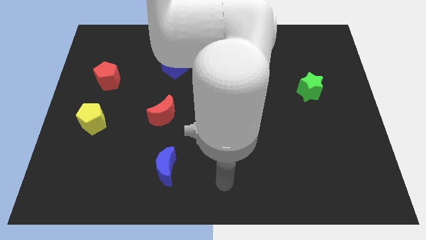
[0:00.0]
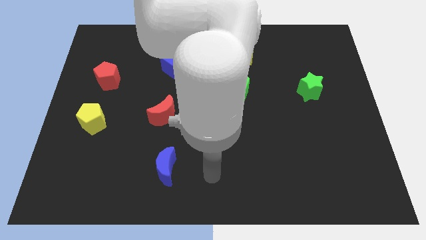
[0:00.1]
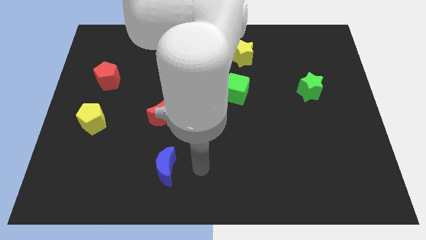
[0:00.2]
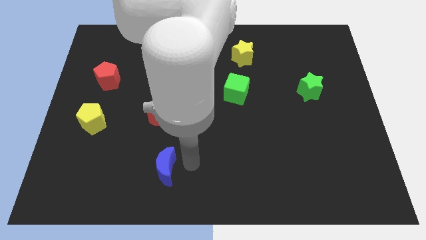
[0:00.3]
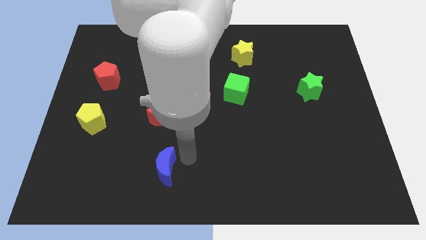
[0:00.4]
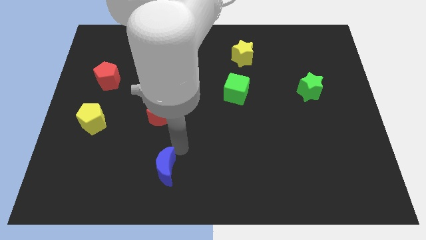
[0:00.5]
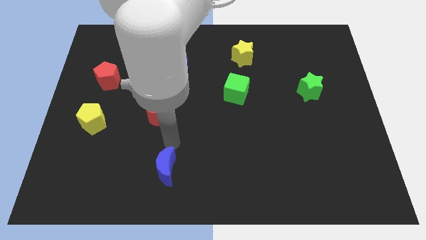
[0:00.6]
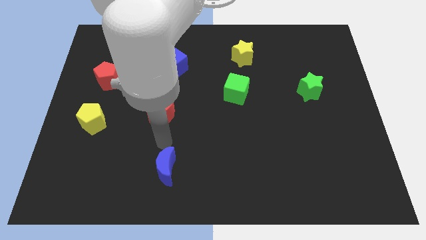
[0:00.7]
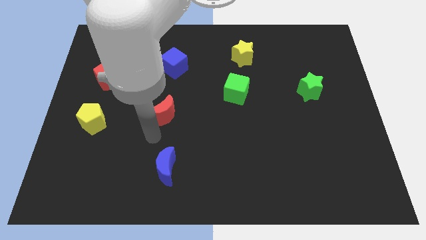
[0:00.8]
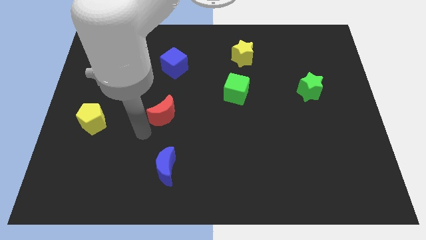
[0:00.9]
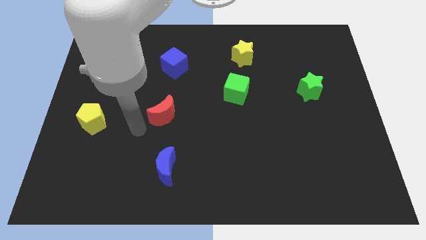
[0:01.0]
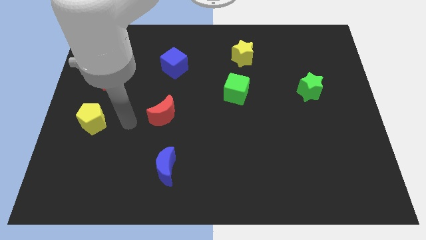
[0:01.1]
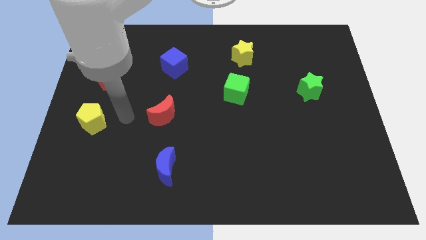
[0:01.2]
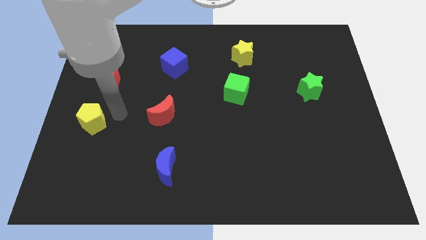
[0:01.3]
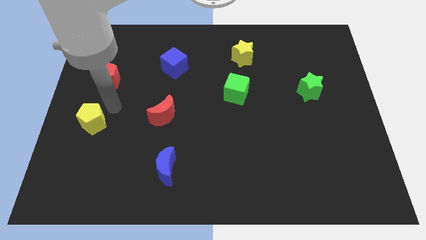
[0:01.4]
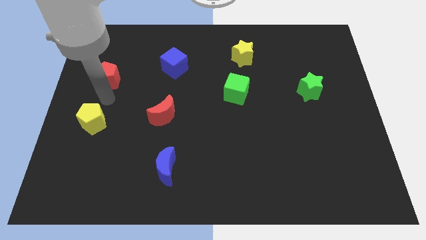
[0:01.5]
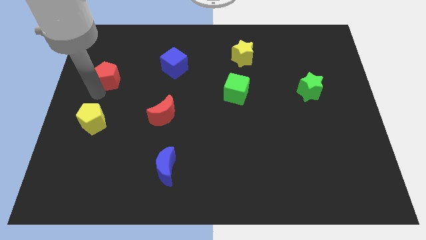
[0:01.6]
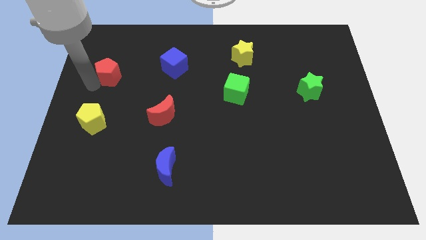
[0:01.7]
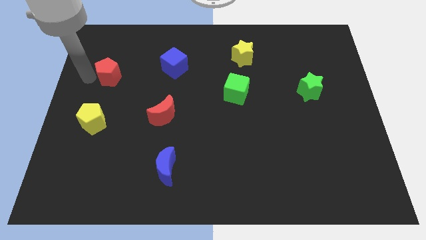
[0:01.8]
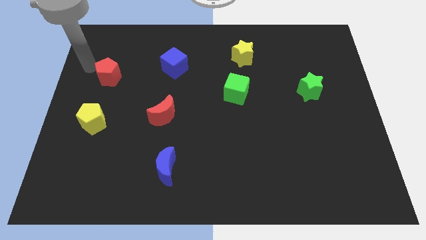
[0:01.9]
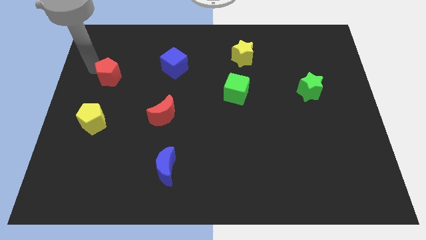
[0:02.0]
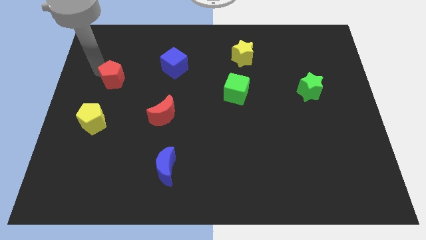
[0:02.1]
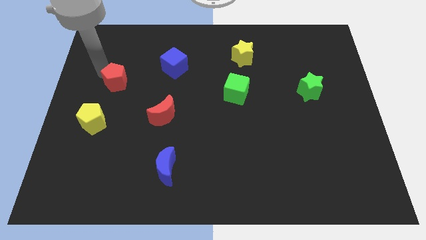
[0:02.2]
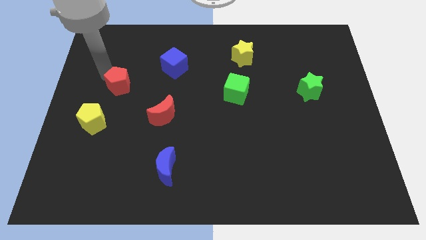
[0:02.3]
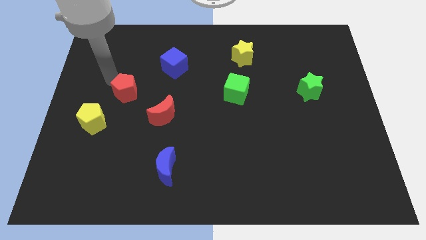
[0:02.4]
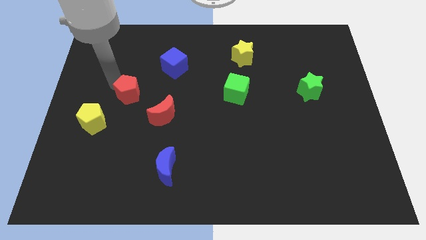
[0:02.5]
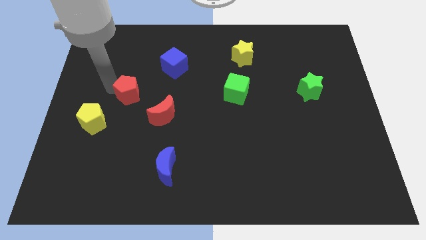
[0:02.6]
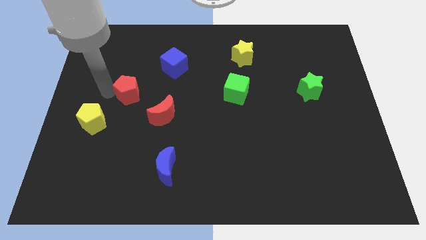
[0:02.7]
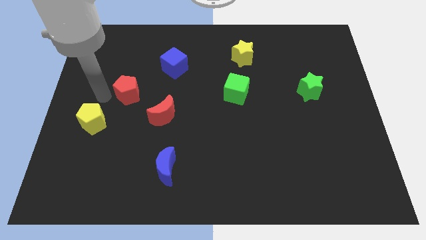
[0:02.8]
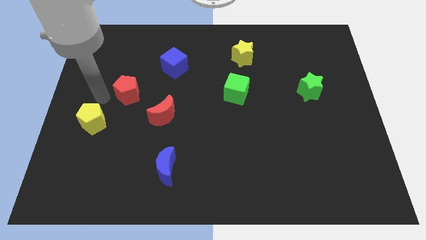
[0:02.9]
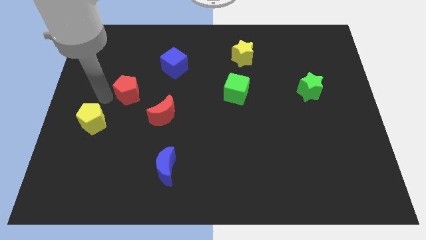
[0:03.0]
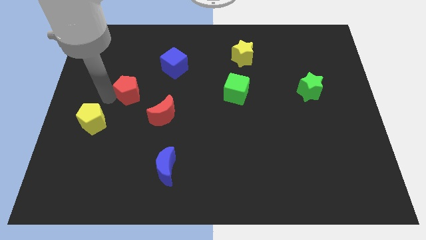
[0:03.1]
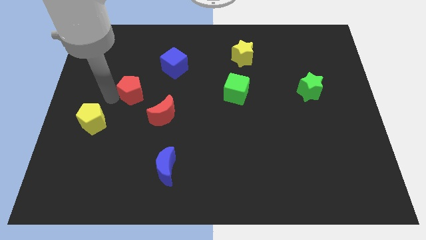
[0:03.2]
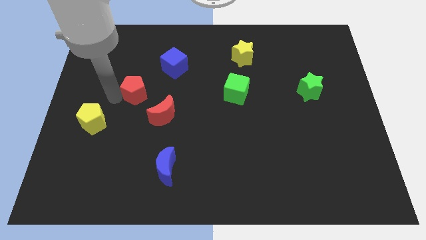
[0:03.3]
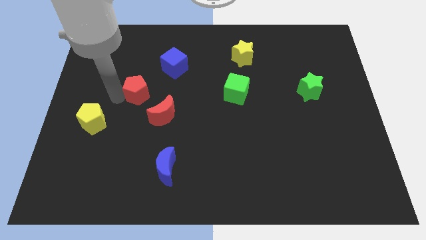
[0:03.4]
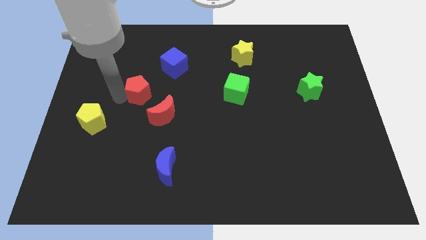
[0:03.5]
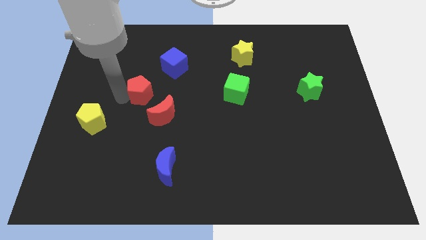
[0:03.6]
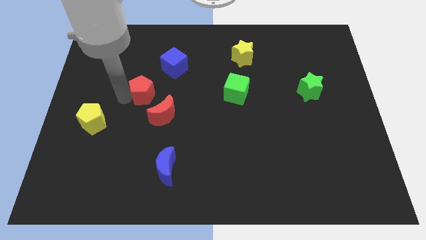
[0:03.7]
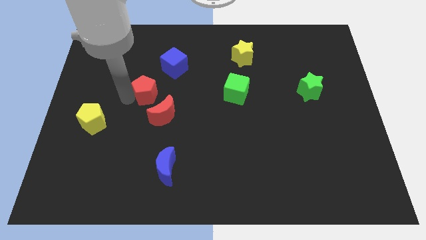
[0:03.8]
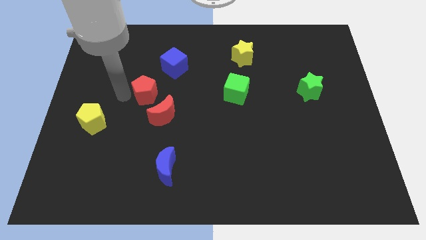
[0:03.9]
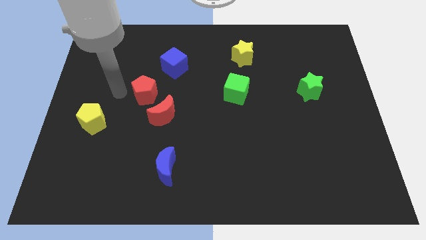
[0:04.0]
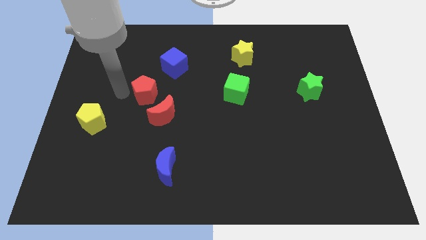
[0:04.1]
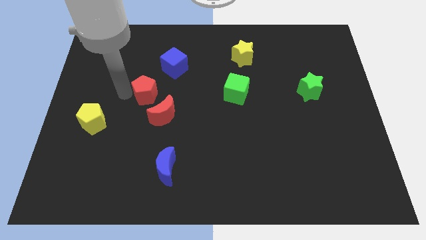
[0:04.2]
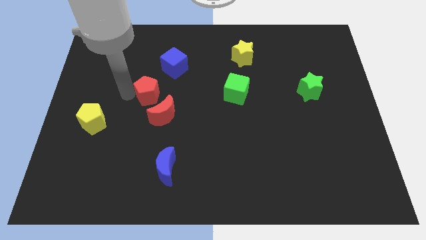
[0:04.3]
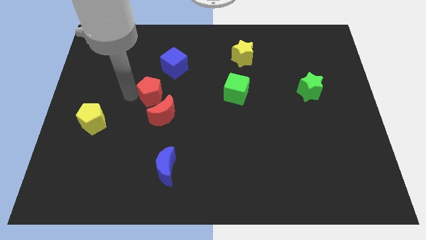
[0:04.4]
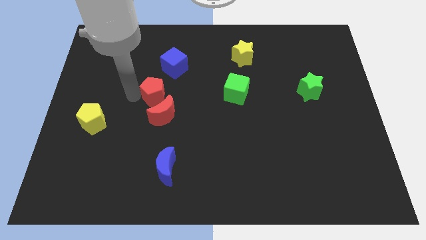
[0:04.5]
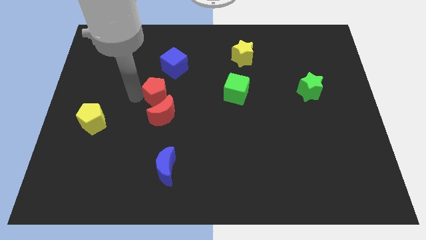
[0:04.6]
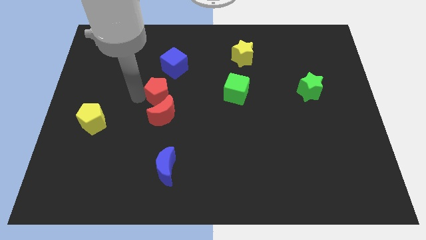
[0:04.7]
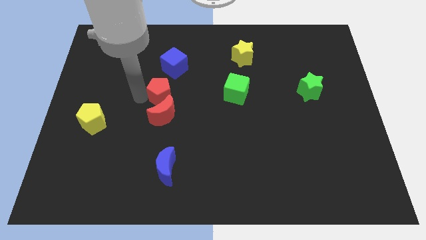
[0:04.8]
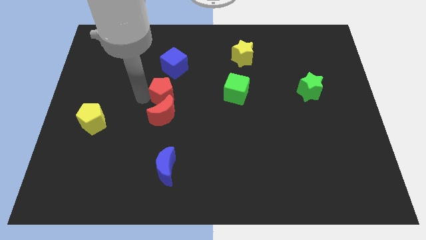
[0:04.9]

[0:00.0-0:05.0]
slide the red pentagon to the center

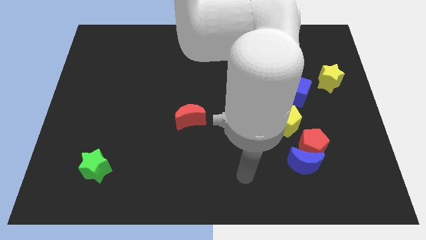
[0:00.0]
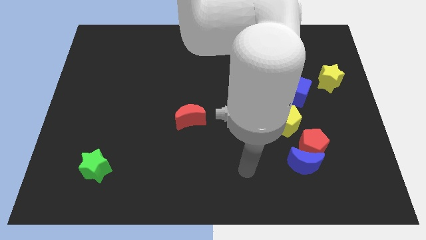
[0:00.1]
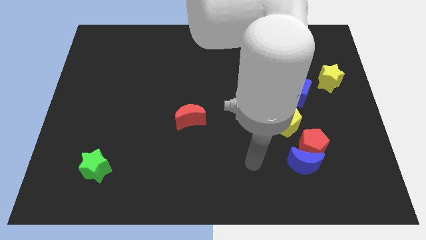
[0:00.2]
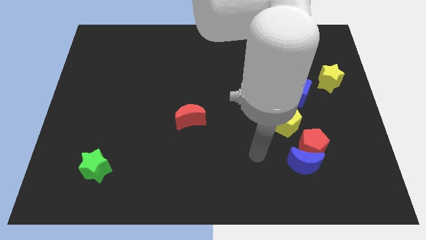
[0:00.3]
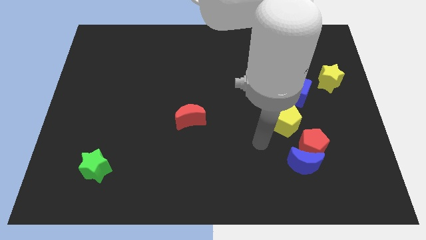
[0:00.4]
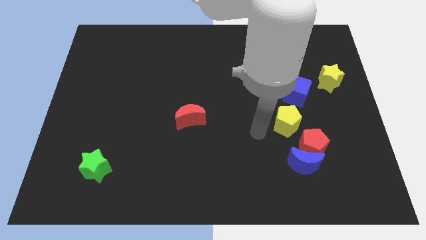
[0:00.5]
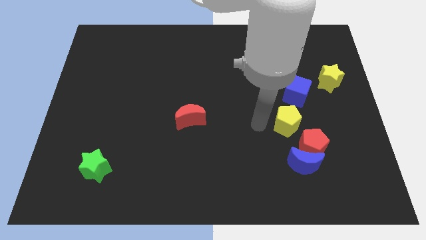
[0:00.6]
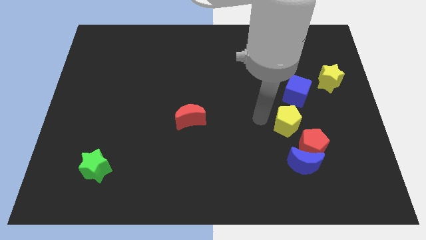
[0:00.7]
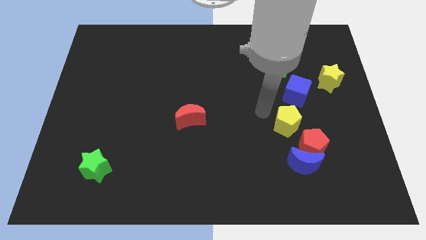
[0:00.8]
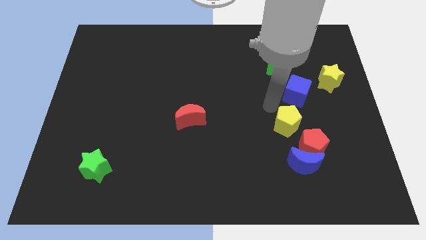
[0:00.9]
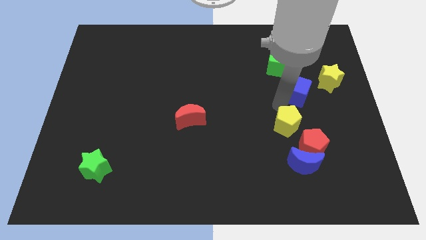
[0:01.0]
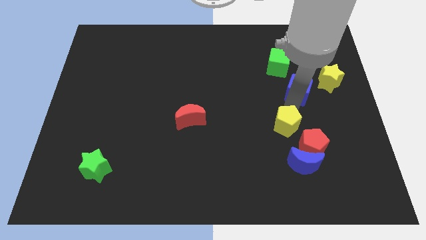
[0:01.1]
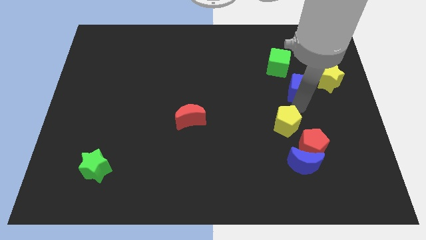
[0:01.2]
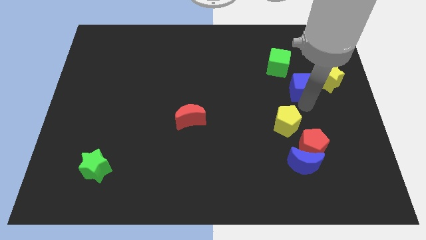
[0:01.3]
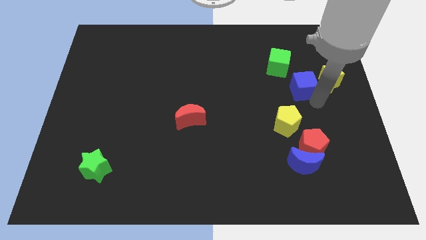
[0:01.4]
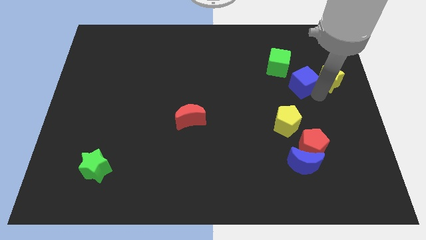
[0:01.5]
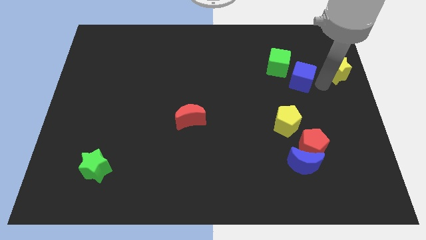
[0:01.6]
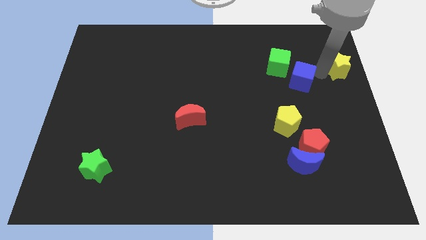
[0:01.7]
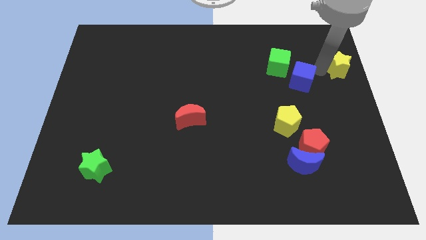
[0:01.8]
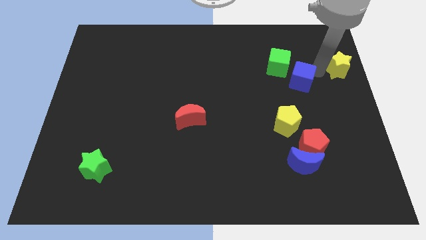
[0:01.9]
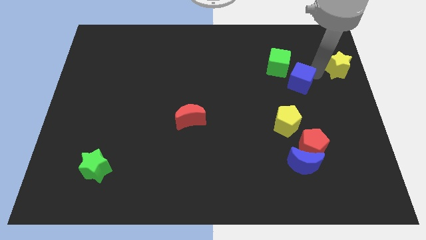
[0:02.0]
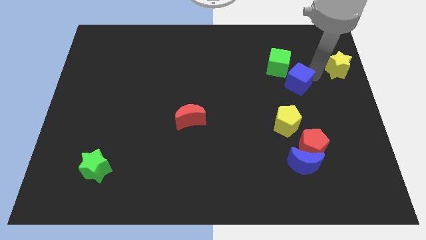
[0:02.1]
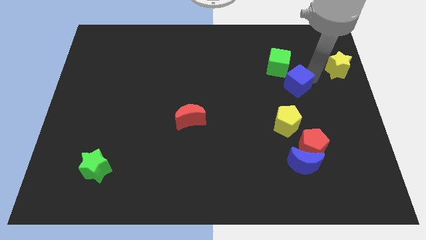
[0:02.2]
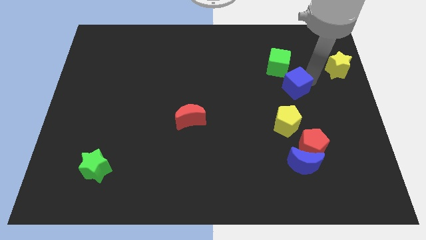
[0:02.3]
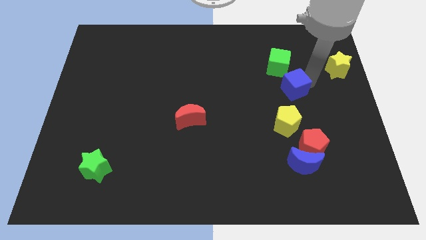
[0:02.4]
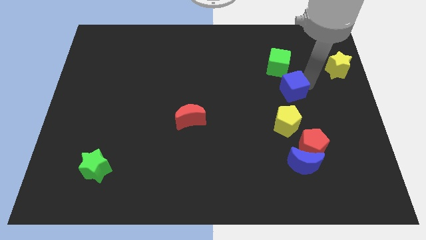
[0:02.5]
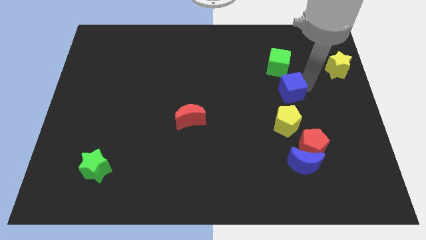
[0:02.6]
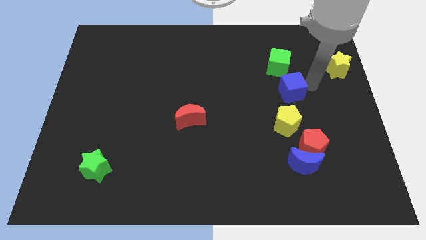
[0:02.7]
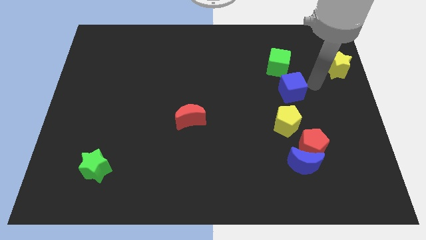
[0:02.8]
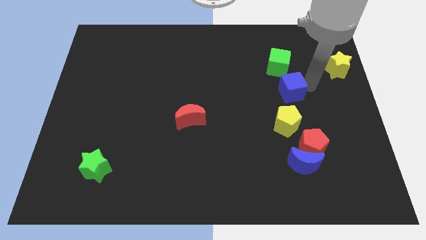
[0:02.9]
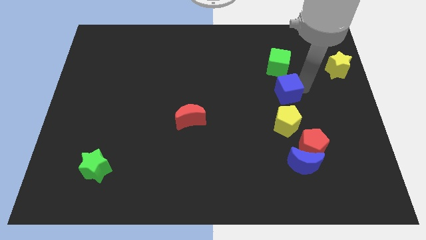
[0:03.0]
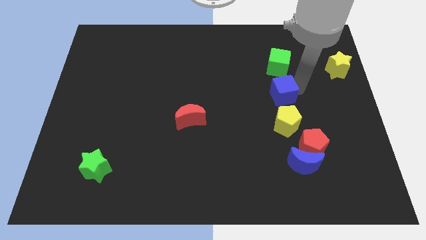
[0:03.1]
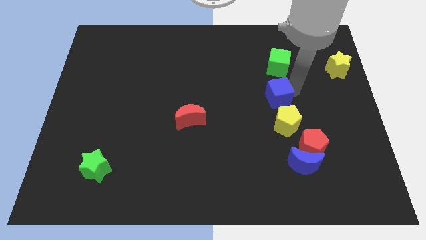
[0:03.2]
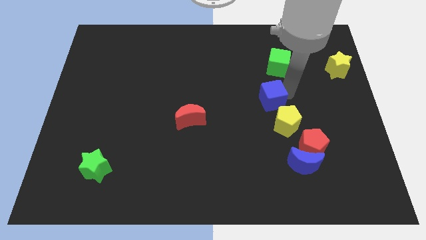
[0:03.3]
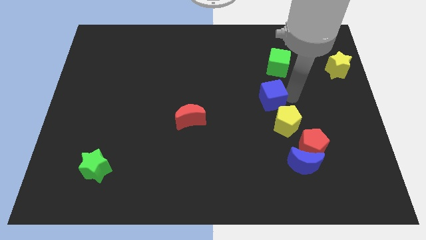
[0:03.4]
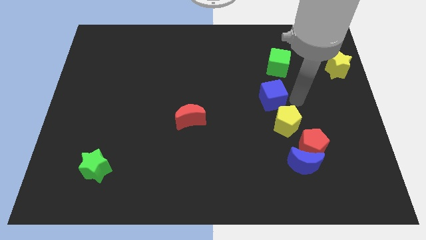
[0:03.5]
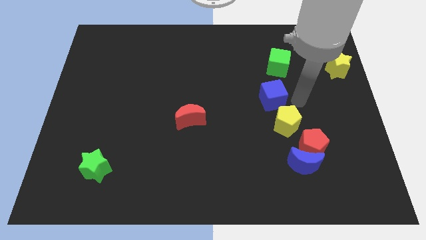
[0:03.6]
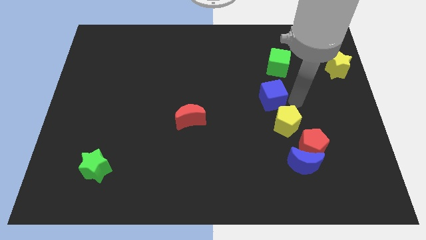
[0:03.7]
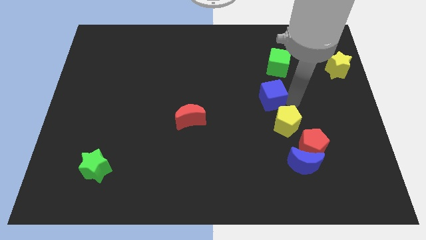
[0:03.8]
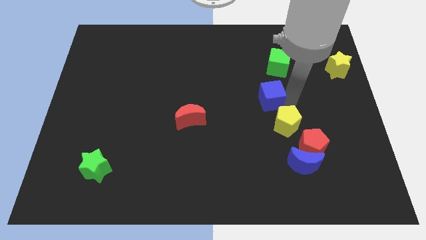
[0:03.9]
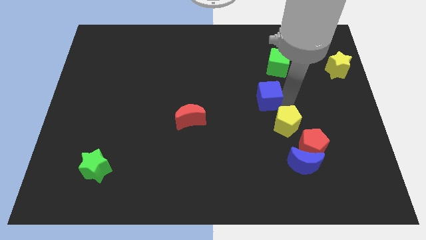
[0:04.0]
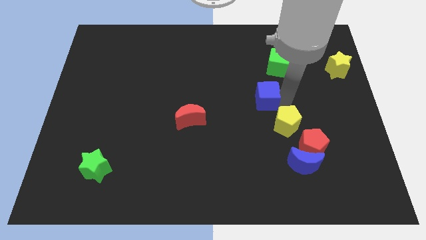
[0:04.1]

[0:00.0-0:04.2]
move the blue cube to the center of the board
